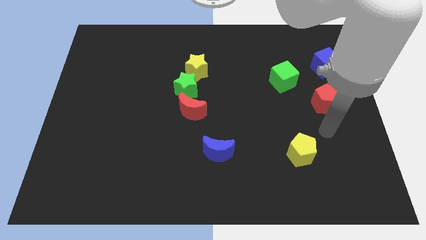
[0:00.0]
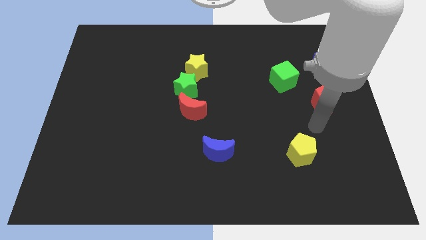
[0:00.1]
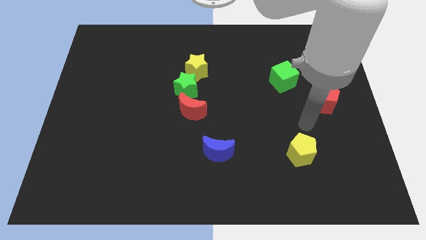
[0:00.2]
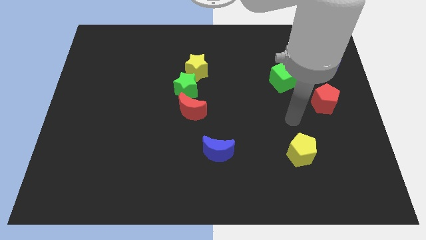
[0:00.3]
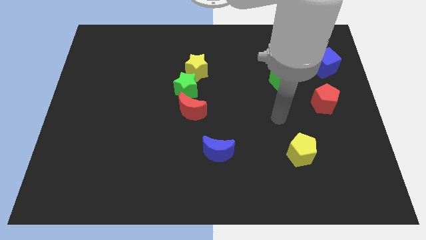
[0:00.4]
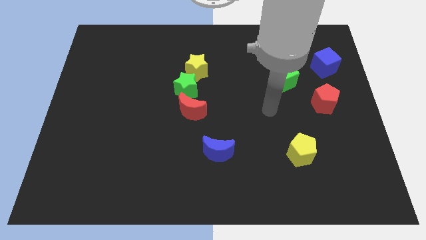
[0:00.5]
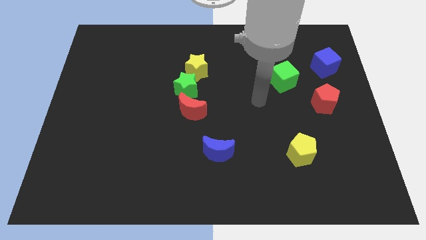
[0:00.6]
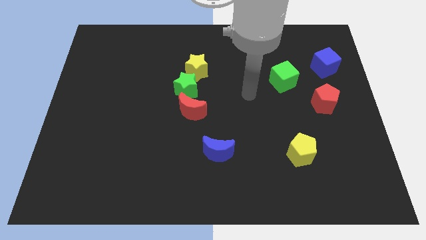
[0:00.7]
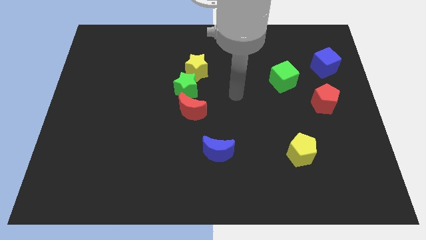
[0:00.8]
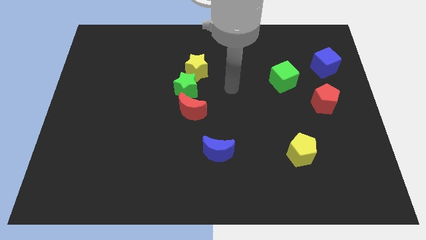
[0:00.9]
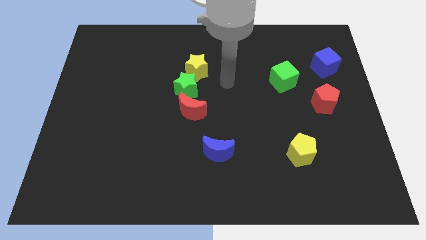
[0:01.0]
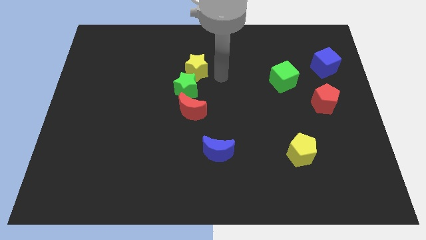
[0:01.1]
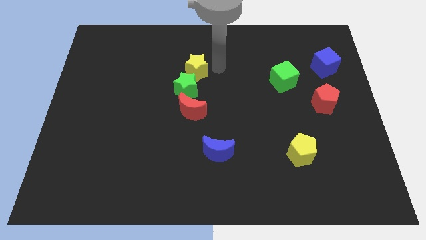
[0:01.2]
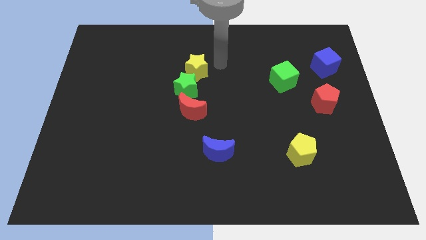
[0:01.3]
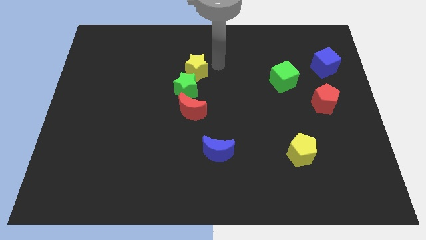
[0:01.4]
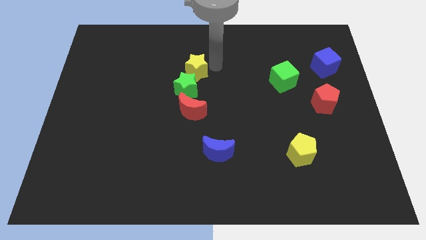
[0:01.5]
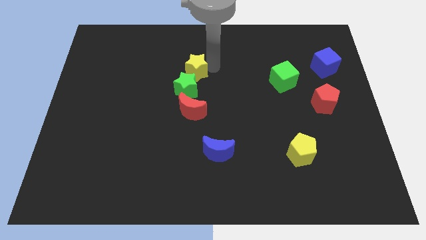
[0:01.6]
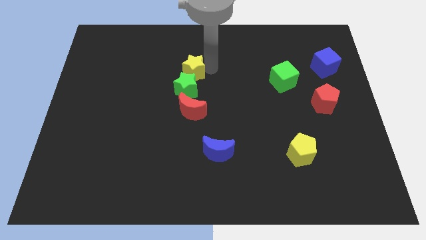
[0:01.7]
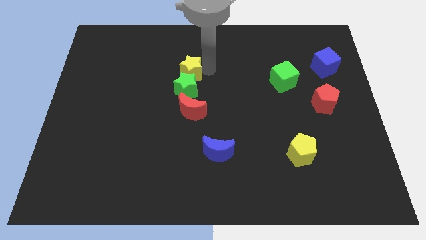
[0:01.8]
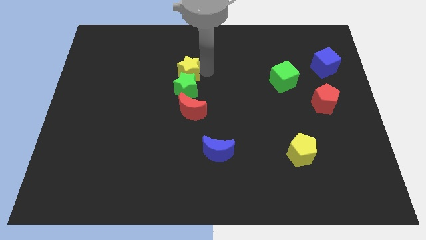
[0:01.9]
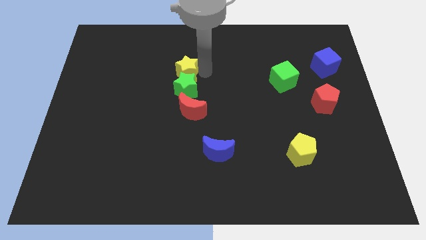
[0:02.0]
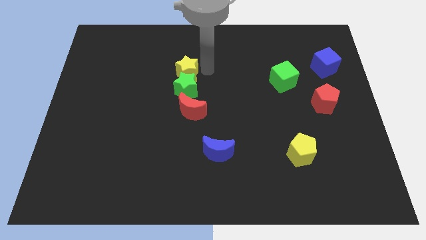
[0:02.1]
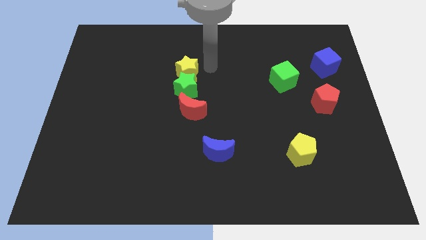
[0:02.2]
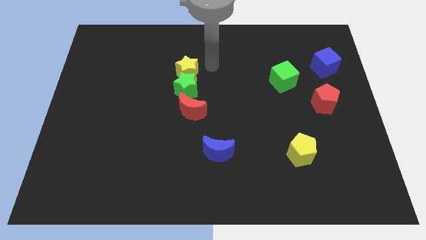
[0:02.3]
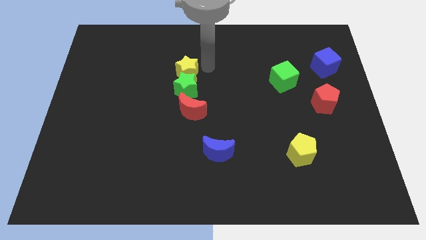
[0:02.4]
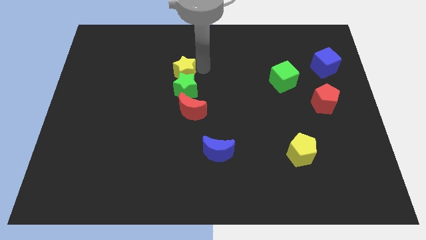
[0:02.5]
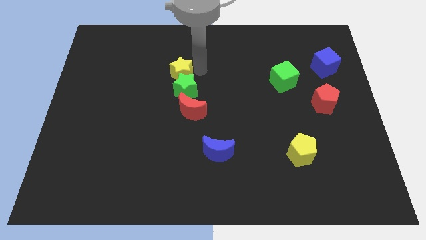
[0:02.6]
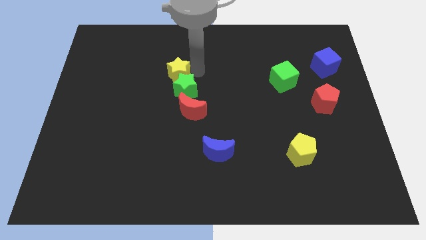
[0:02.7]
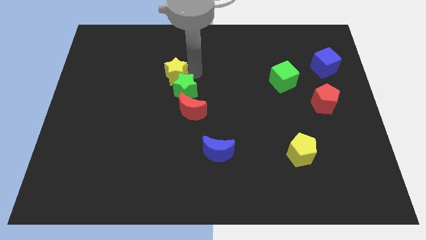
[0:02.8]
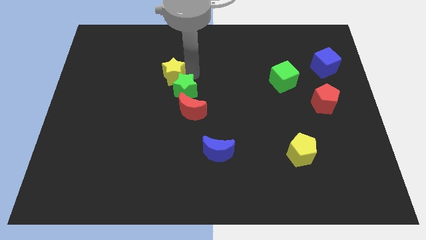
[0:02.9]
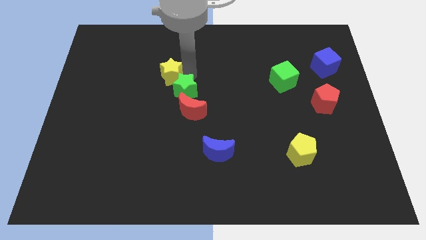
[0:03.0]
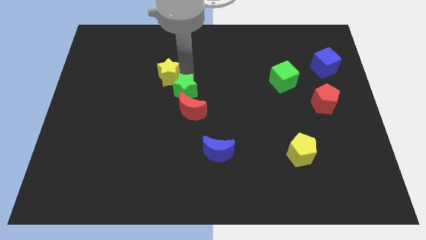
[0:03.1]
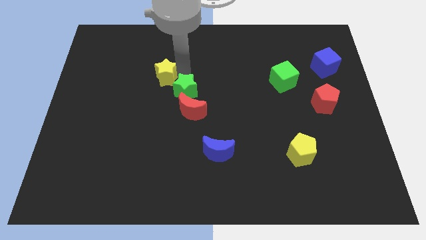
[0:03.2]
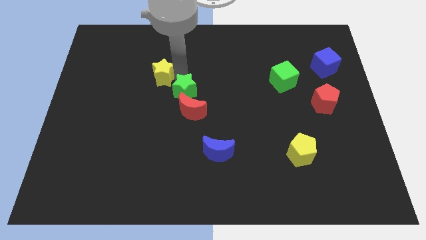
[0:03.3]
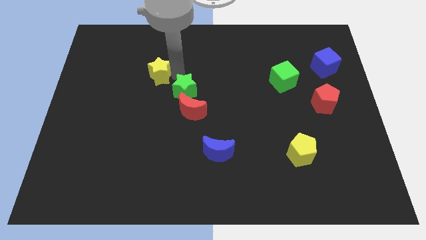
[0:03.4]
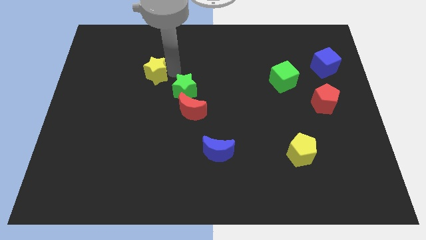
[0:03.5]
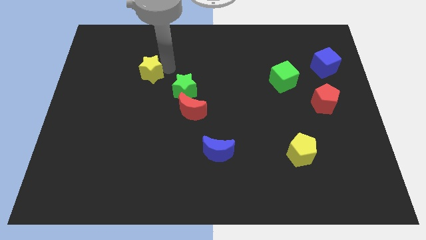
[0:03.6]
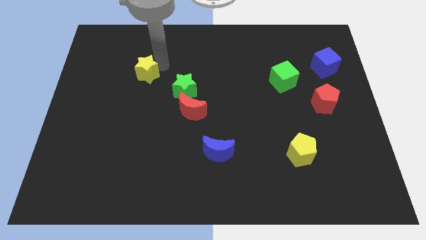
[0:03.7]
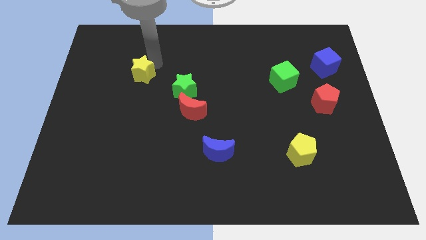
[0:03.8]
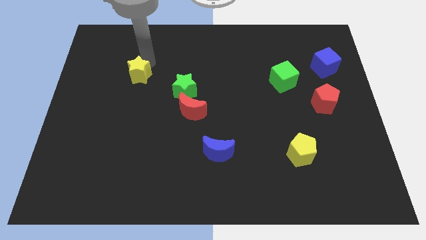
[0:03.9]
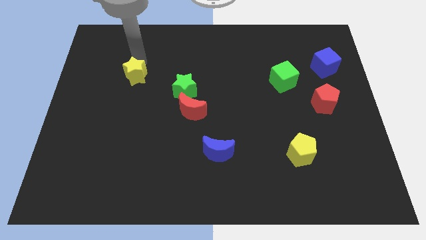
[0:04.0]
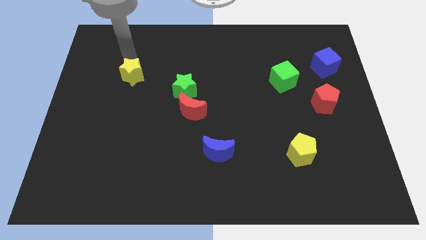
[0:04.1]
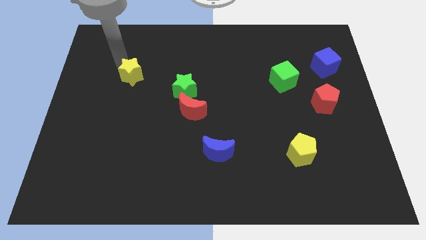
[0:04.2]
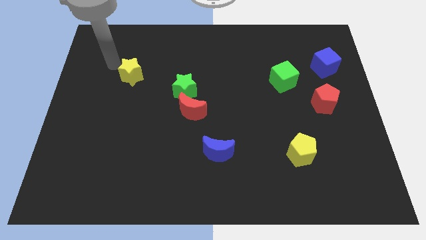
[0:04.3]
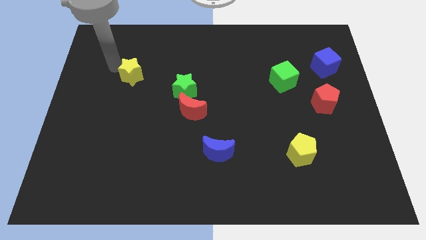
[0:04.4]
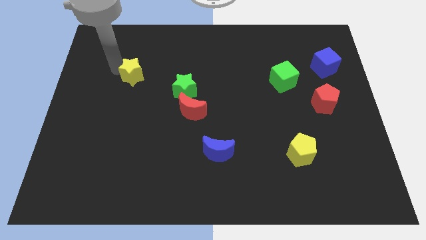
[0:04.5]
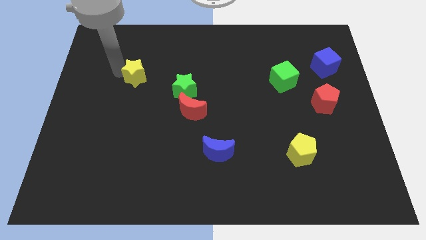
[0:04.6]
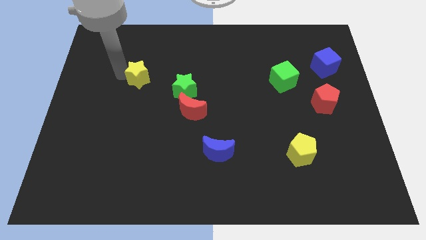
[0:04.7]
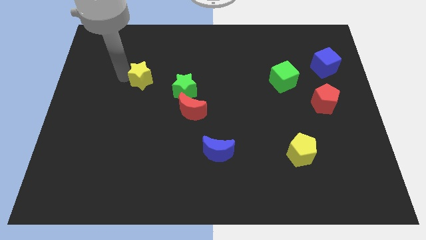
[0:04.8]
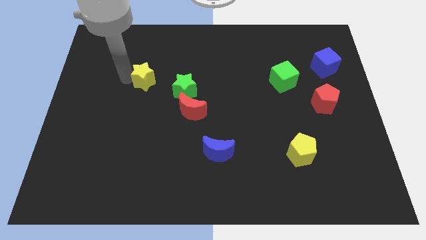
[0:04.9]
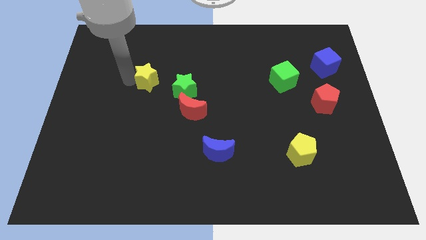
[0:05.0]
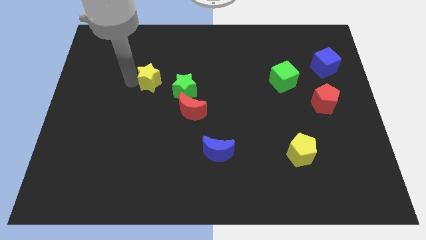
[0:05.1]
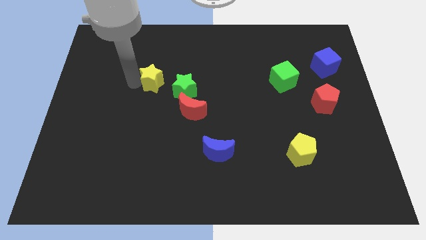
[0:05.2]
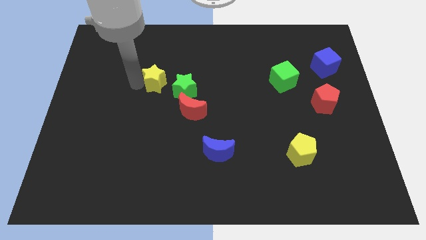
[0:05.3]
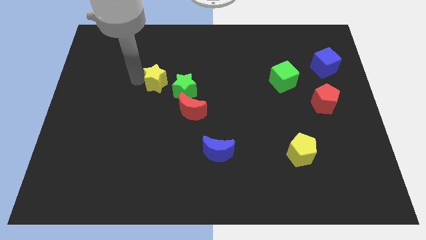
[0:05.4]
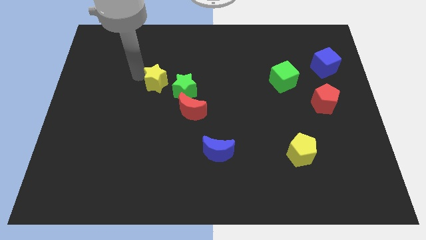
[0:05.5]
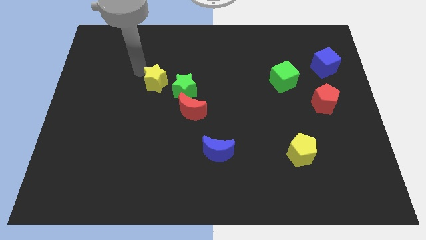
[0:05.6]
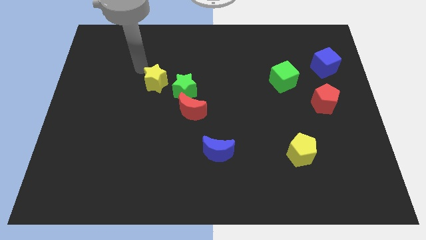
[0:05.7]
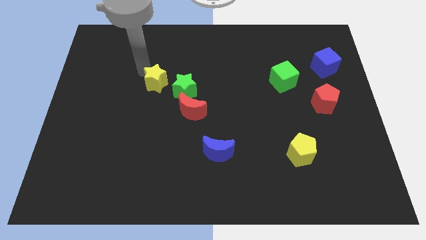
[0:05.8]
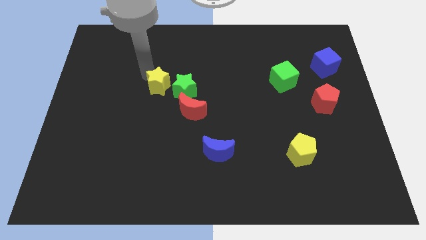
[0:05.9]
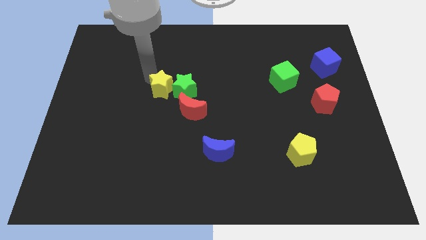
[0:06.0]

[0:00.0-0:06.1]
move the yellow star to the bottom left side of the green star

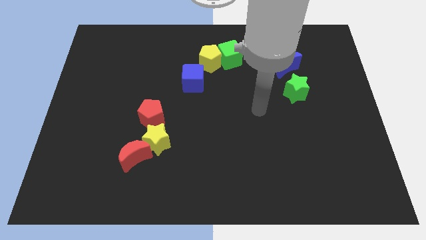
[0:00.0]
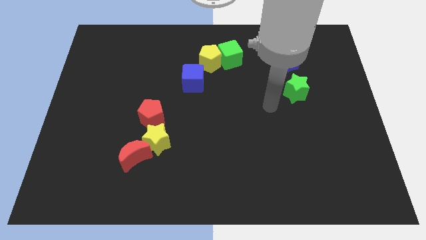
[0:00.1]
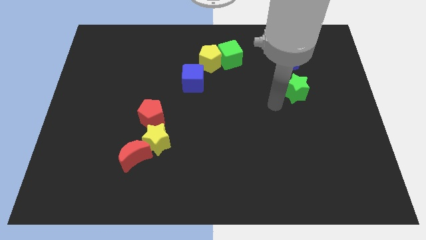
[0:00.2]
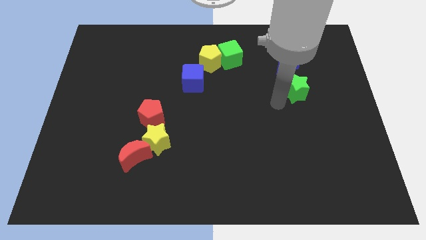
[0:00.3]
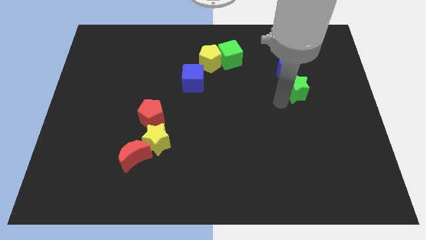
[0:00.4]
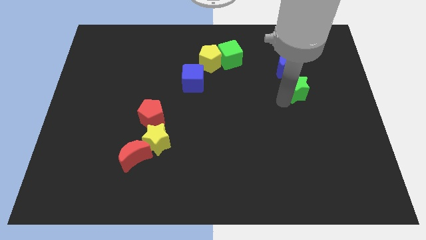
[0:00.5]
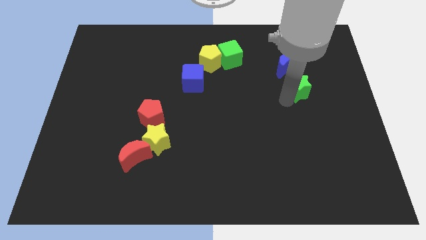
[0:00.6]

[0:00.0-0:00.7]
move the green star to the bottom right of the blue moon

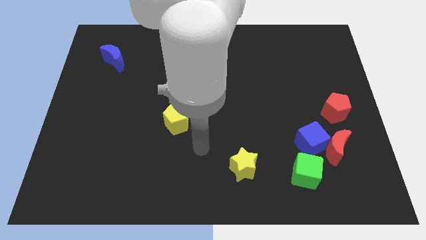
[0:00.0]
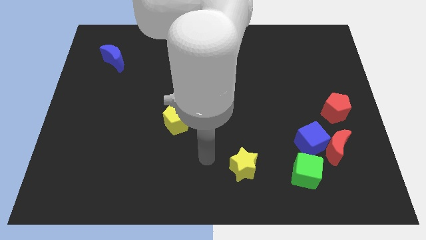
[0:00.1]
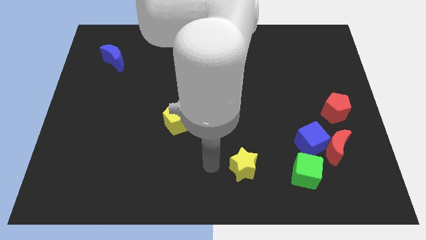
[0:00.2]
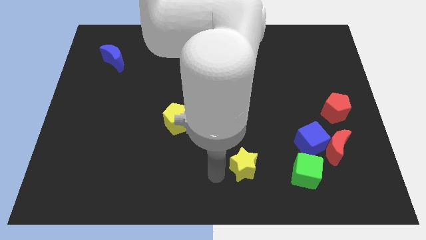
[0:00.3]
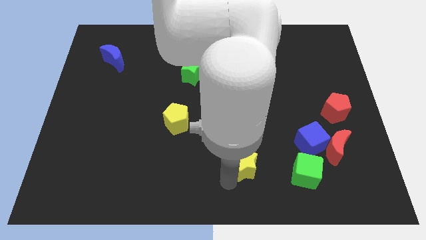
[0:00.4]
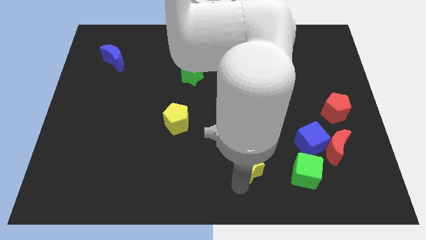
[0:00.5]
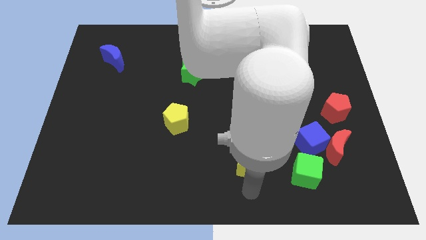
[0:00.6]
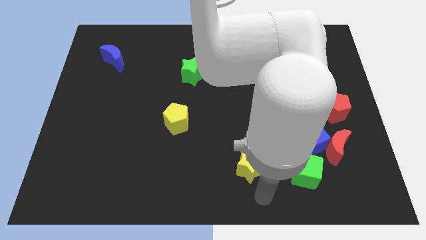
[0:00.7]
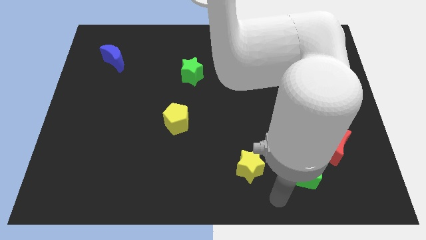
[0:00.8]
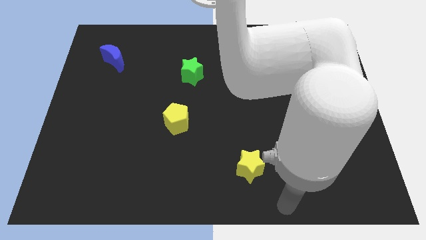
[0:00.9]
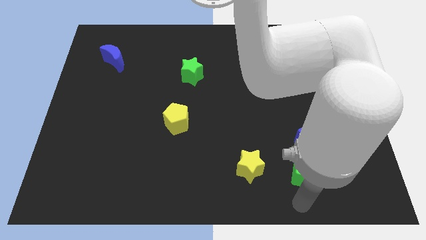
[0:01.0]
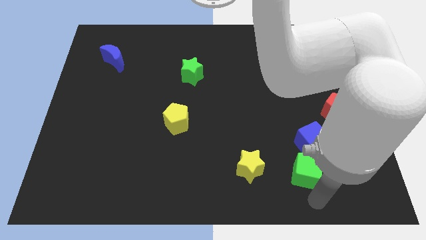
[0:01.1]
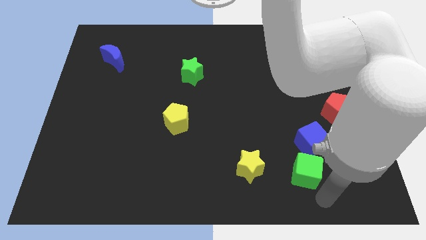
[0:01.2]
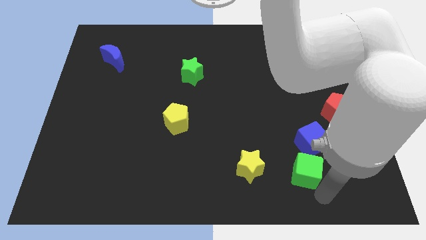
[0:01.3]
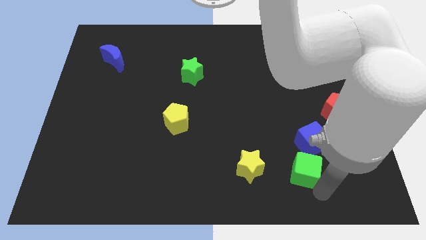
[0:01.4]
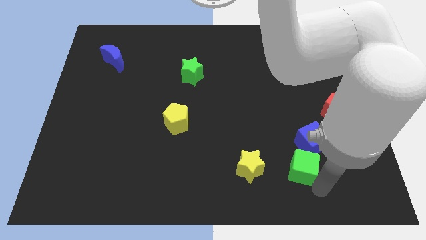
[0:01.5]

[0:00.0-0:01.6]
put the green cube left of the red moon
